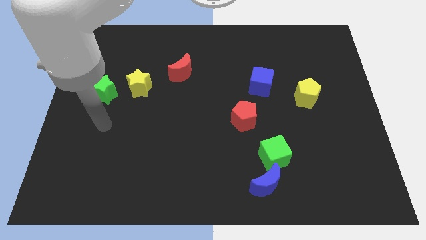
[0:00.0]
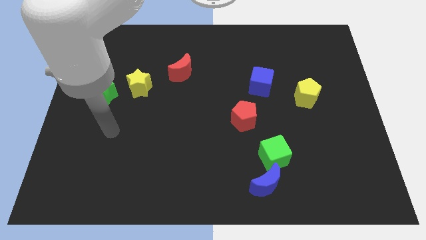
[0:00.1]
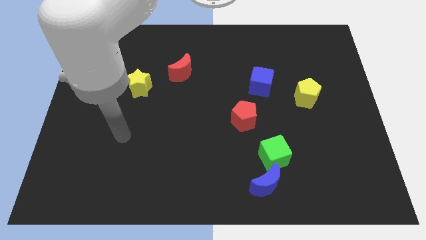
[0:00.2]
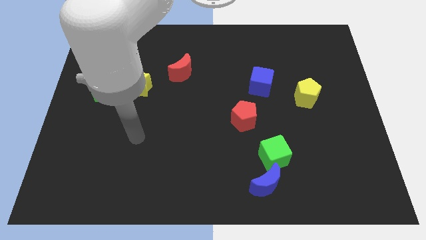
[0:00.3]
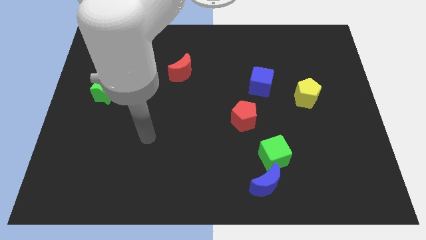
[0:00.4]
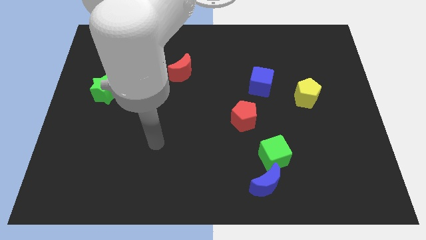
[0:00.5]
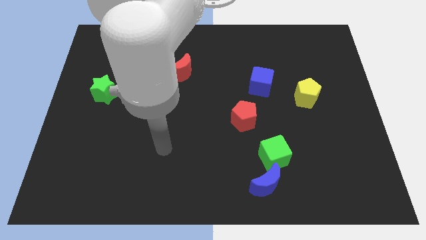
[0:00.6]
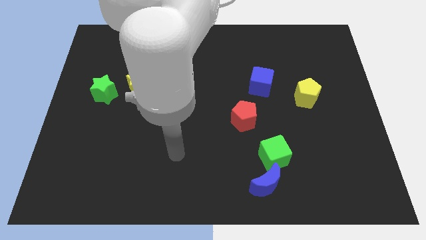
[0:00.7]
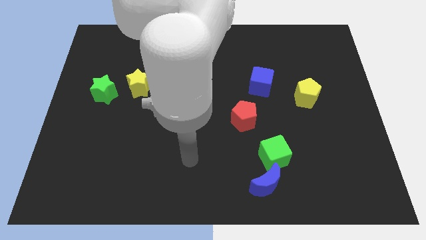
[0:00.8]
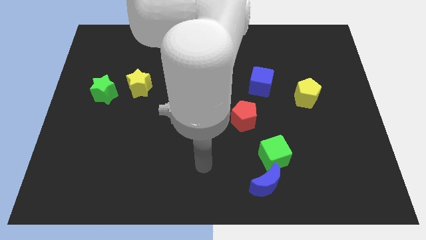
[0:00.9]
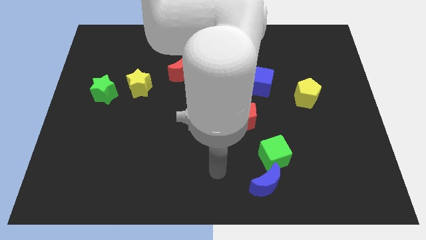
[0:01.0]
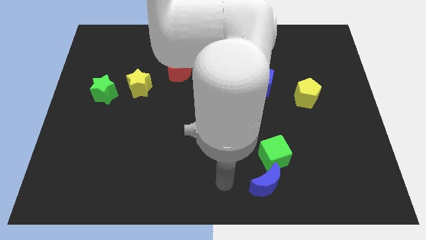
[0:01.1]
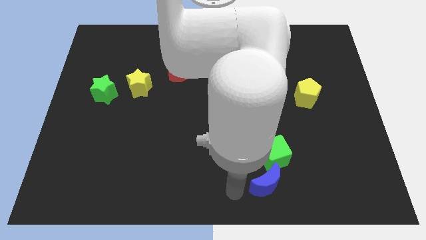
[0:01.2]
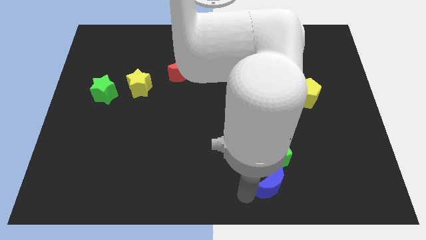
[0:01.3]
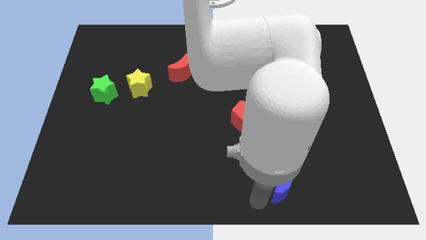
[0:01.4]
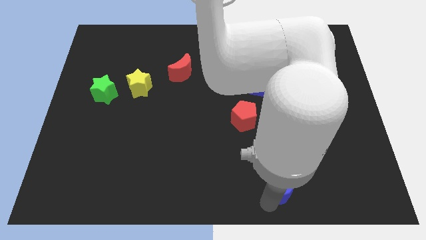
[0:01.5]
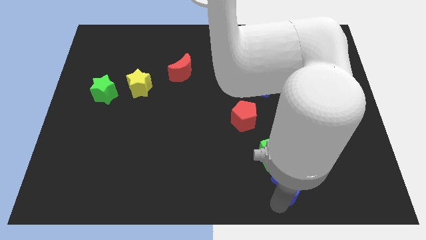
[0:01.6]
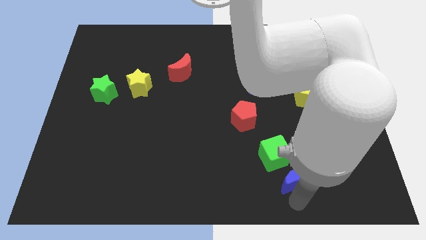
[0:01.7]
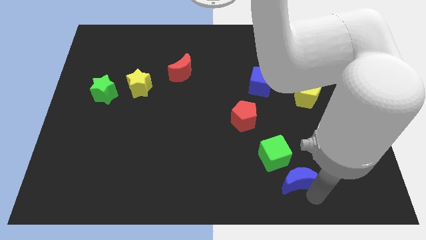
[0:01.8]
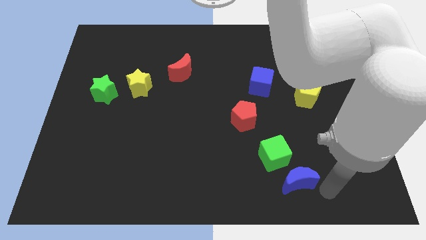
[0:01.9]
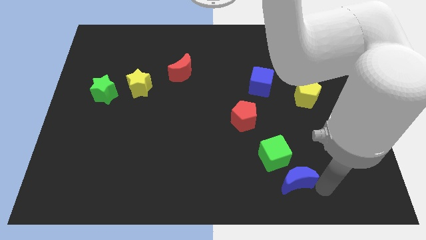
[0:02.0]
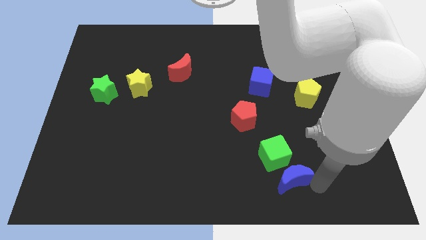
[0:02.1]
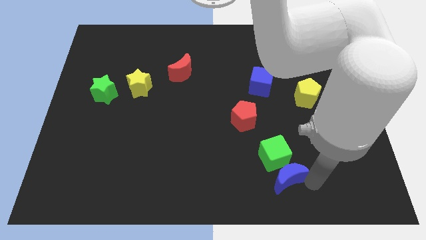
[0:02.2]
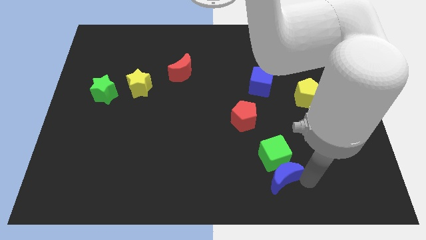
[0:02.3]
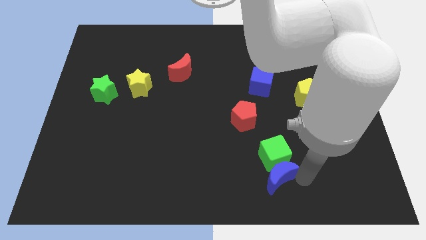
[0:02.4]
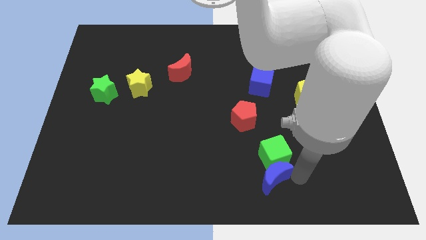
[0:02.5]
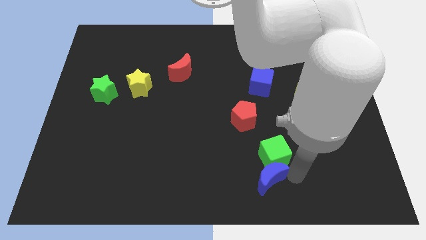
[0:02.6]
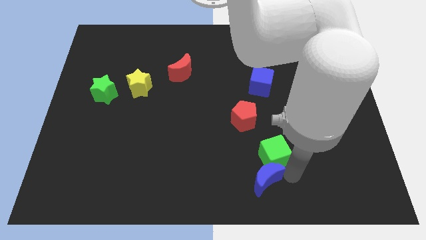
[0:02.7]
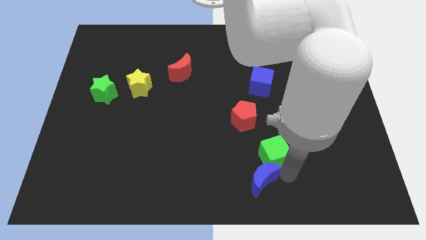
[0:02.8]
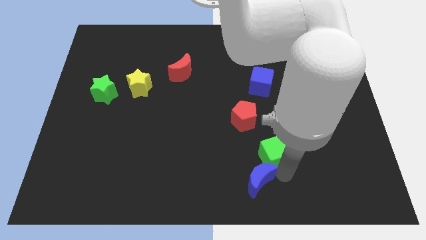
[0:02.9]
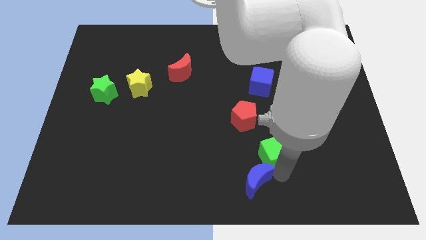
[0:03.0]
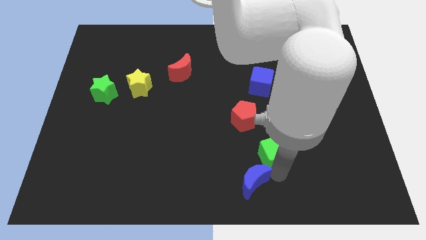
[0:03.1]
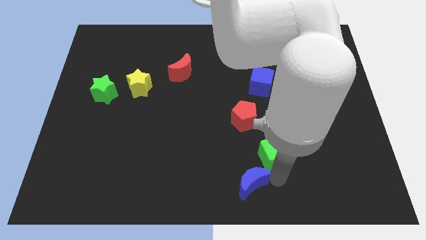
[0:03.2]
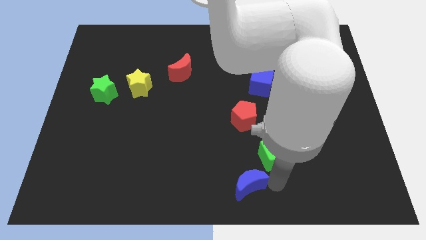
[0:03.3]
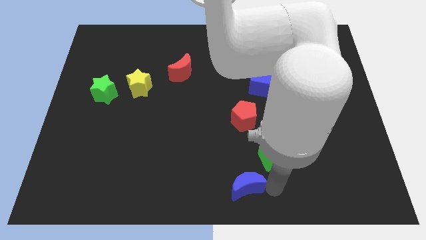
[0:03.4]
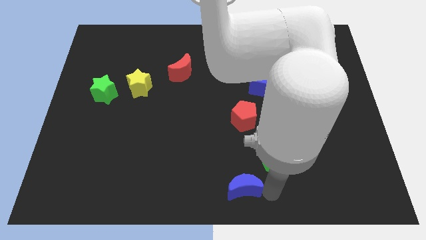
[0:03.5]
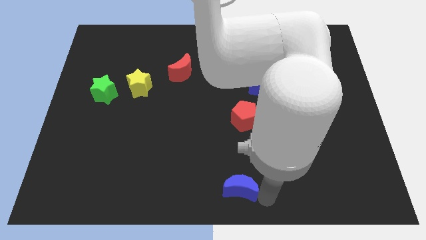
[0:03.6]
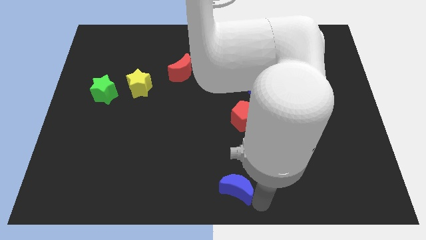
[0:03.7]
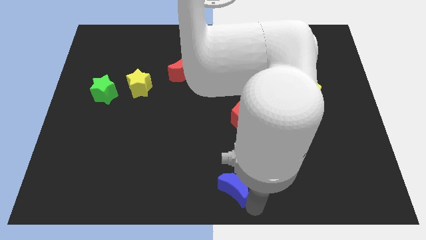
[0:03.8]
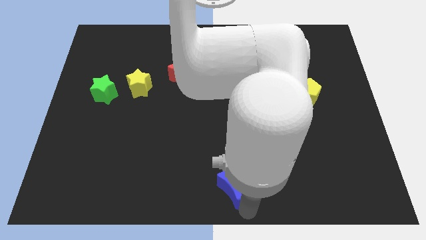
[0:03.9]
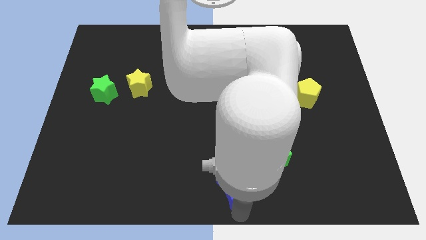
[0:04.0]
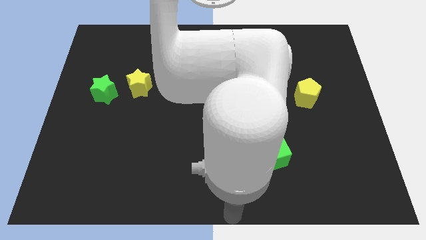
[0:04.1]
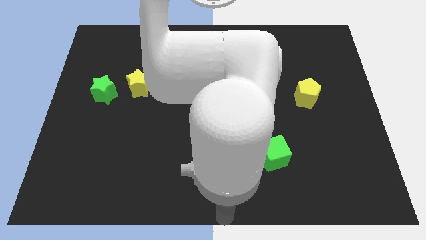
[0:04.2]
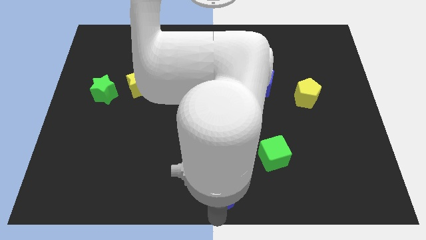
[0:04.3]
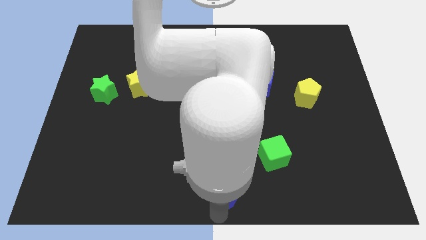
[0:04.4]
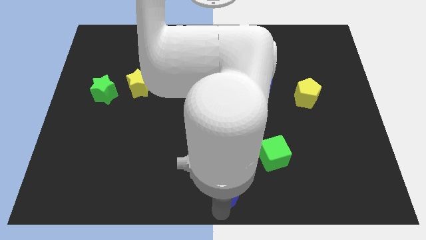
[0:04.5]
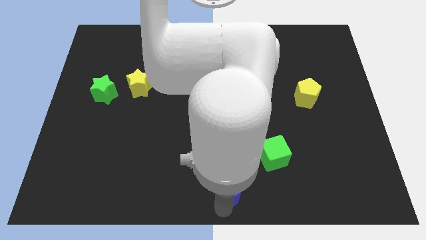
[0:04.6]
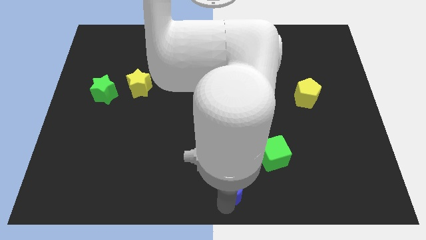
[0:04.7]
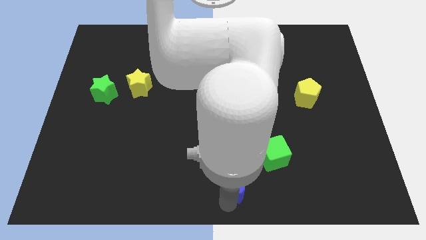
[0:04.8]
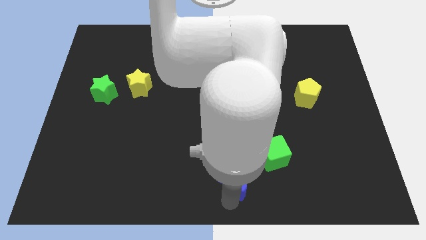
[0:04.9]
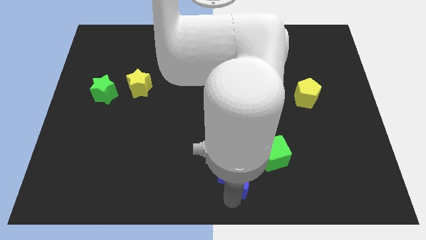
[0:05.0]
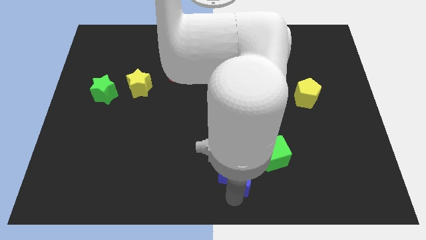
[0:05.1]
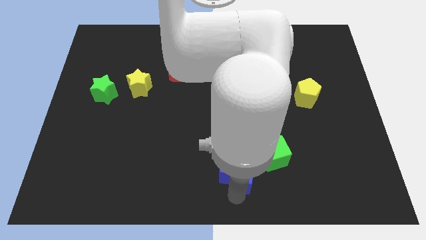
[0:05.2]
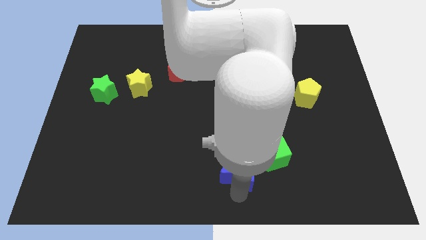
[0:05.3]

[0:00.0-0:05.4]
move the blue moon to the left side of the green cube

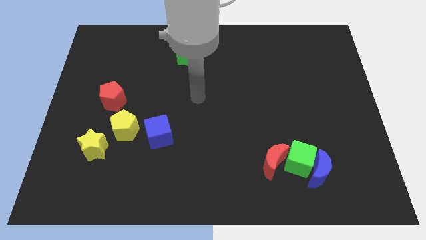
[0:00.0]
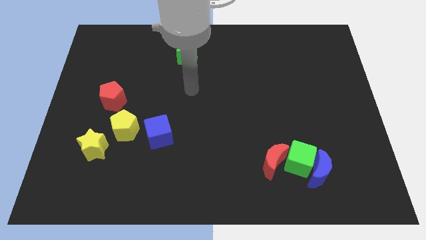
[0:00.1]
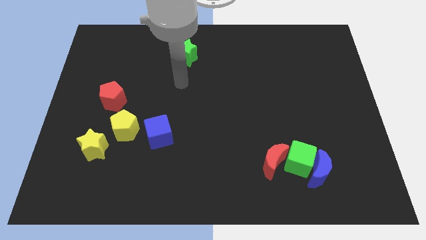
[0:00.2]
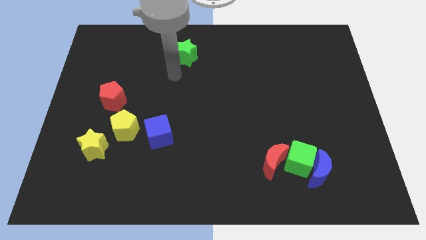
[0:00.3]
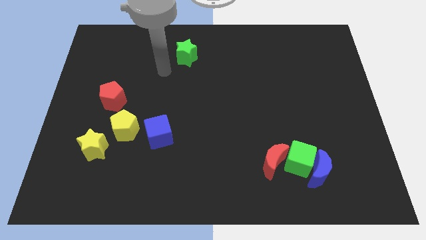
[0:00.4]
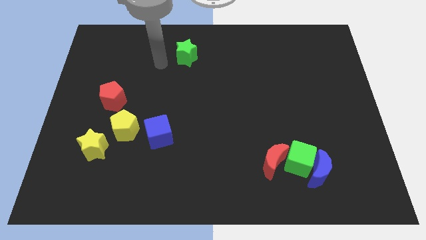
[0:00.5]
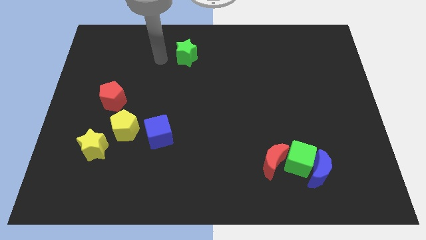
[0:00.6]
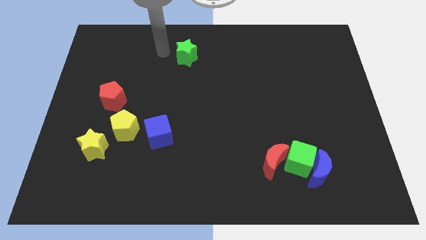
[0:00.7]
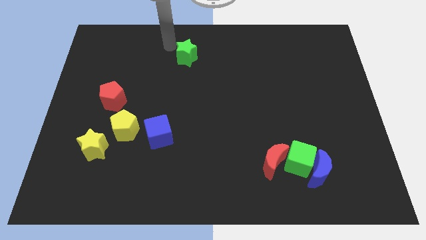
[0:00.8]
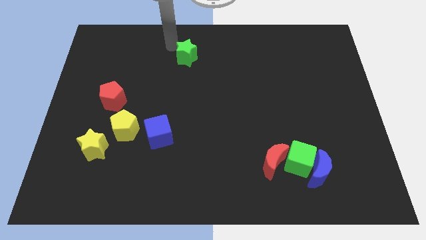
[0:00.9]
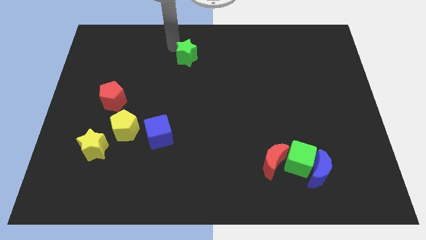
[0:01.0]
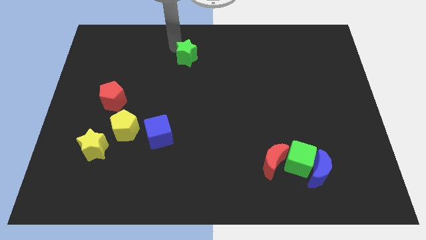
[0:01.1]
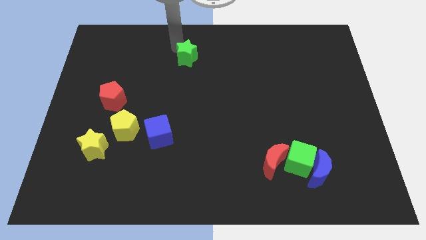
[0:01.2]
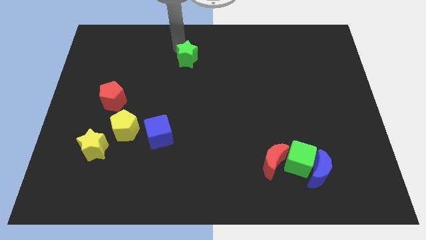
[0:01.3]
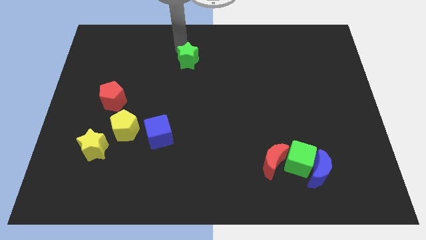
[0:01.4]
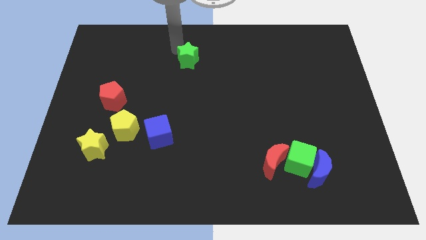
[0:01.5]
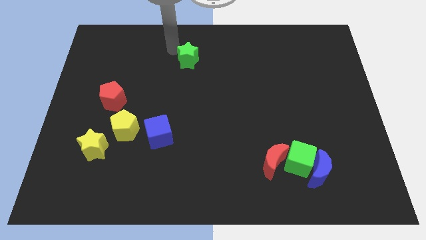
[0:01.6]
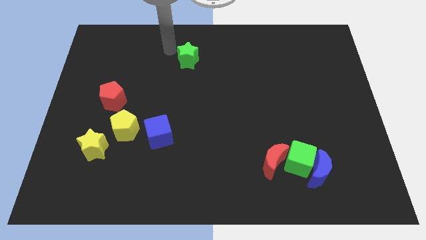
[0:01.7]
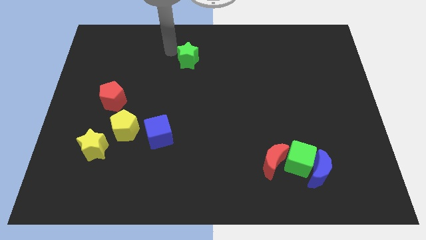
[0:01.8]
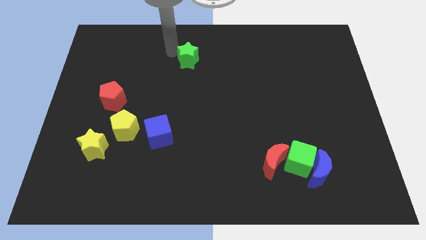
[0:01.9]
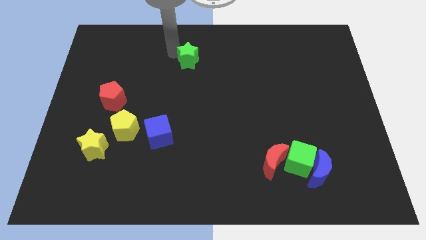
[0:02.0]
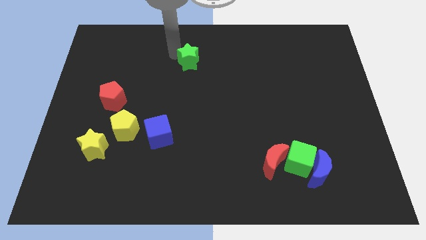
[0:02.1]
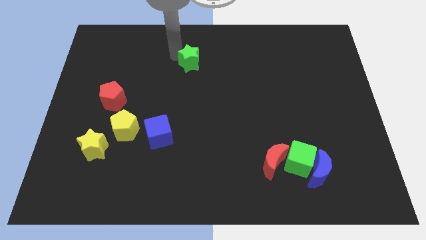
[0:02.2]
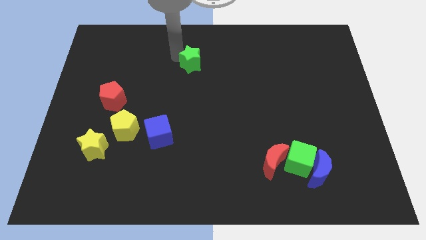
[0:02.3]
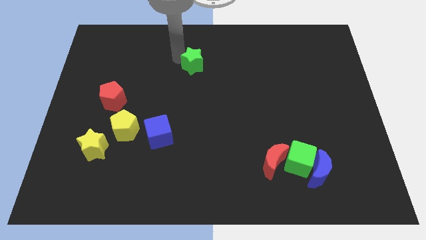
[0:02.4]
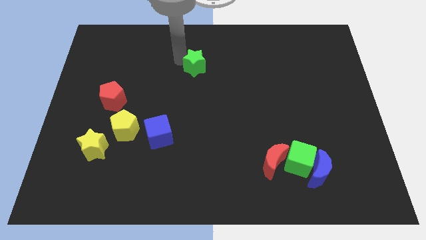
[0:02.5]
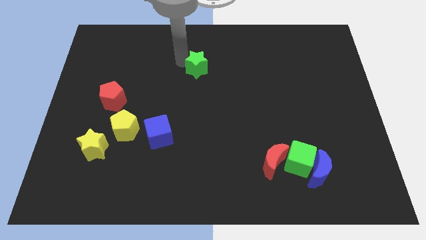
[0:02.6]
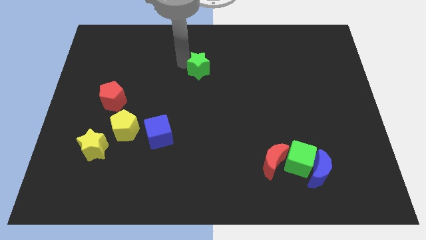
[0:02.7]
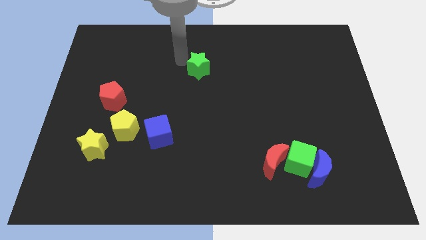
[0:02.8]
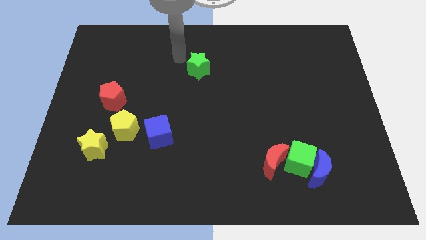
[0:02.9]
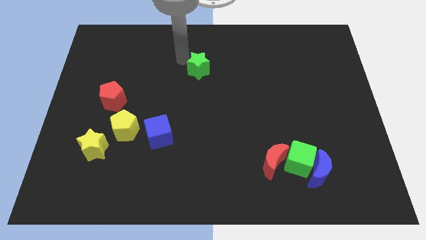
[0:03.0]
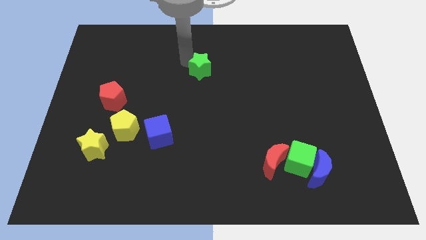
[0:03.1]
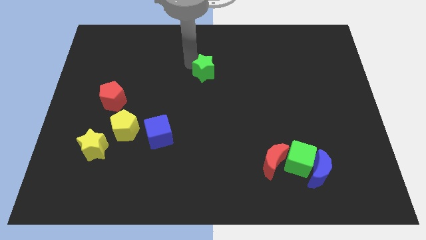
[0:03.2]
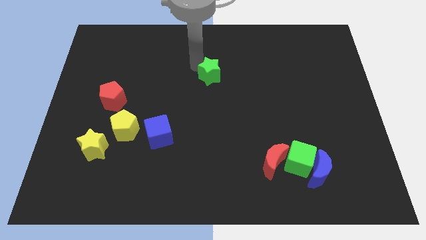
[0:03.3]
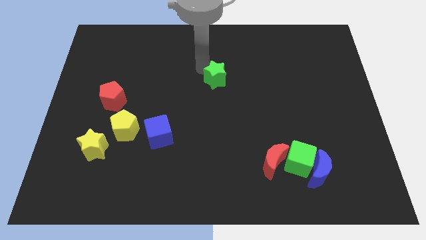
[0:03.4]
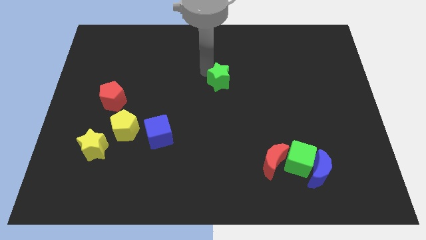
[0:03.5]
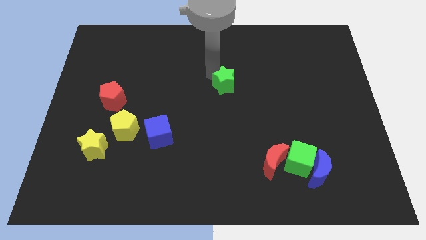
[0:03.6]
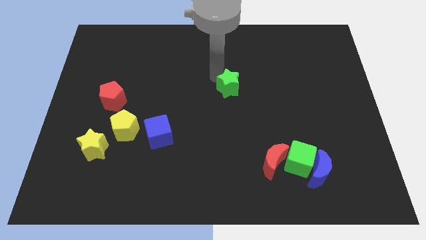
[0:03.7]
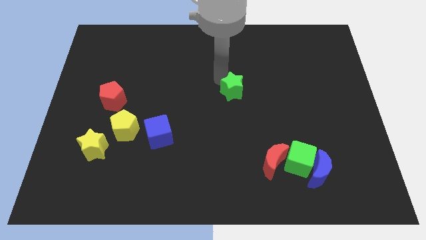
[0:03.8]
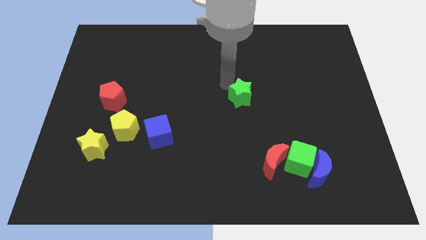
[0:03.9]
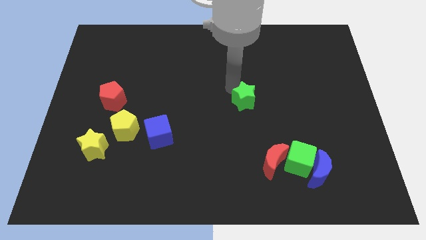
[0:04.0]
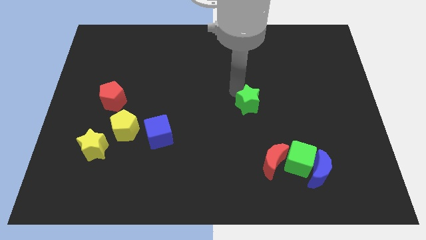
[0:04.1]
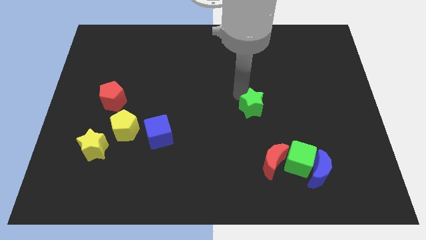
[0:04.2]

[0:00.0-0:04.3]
move the green star above the red moon
